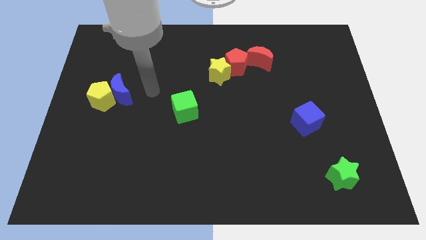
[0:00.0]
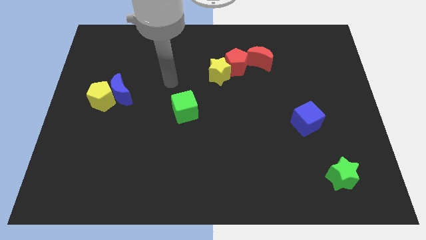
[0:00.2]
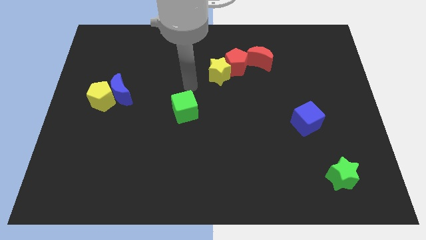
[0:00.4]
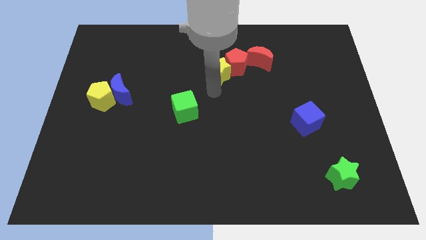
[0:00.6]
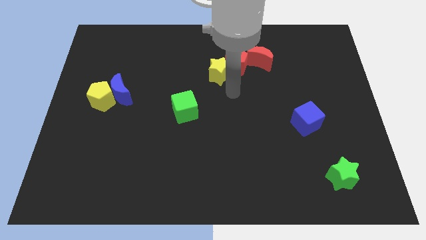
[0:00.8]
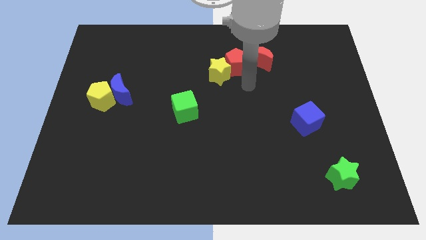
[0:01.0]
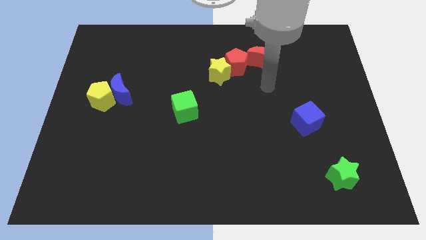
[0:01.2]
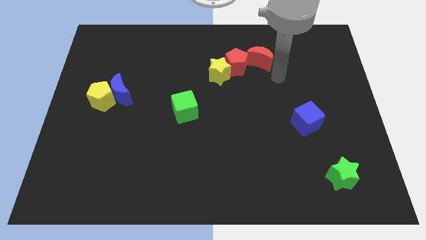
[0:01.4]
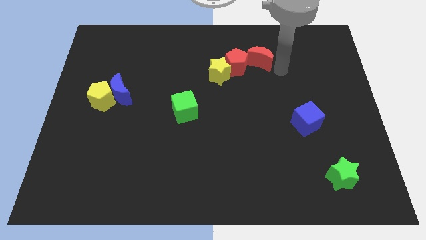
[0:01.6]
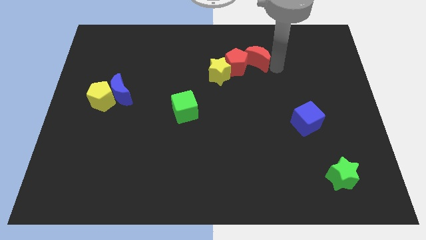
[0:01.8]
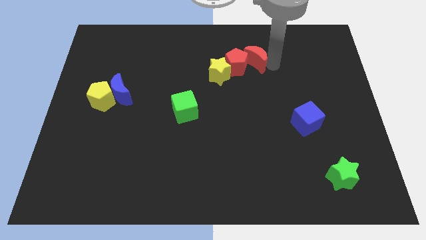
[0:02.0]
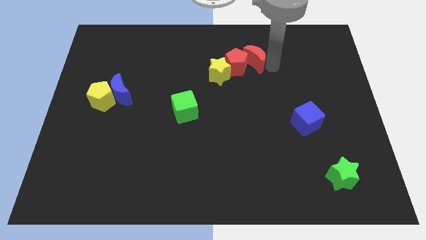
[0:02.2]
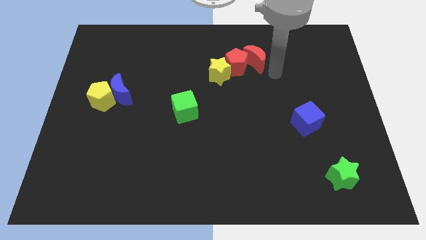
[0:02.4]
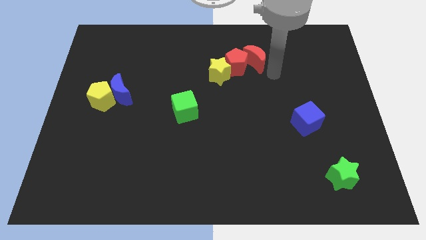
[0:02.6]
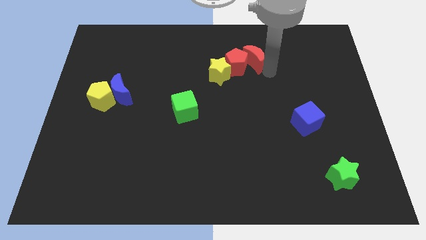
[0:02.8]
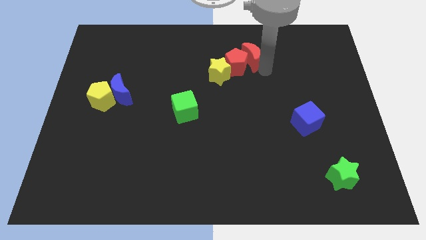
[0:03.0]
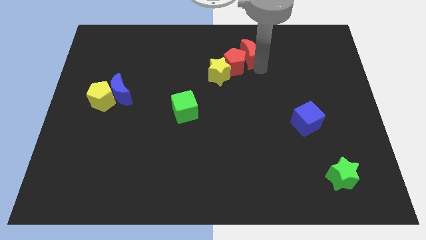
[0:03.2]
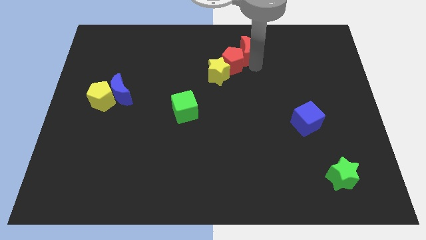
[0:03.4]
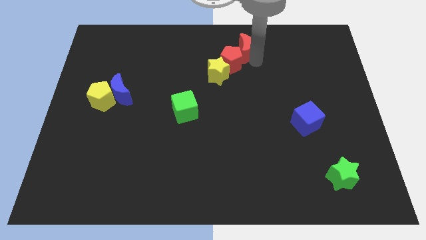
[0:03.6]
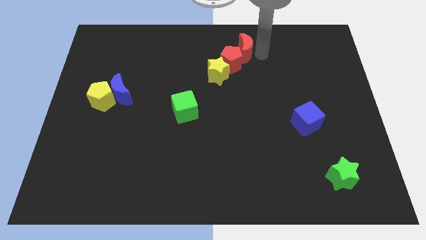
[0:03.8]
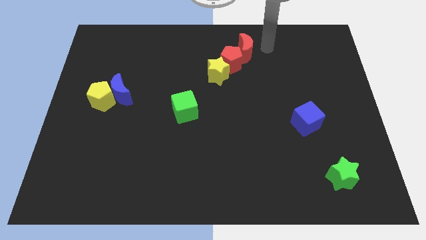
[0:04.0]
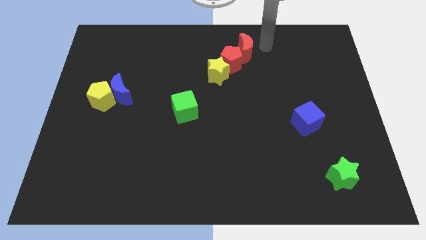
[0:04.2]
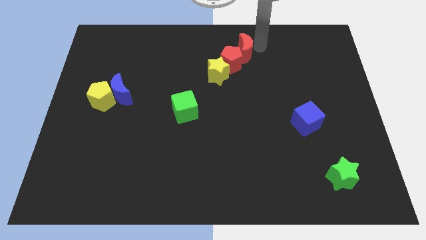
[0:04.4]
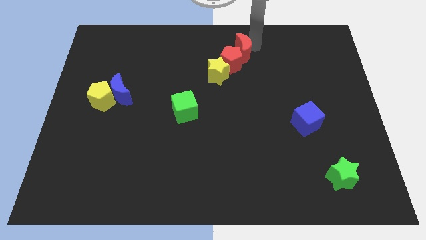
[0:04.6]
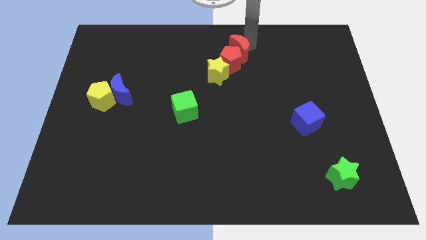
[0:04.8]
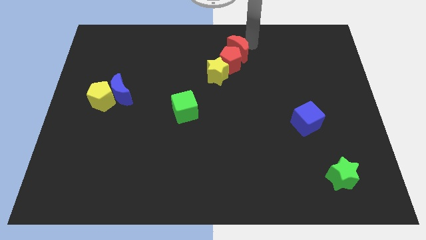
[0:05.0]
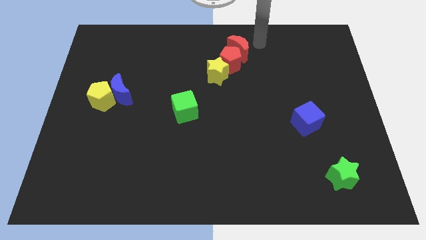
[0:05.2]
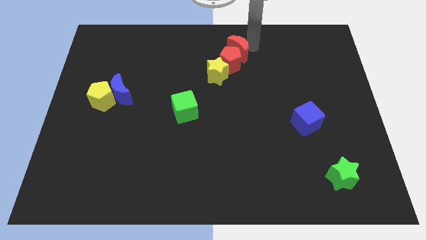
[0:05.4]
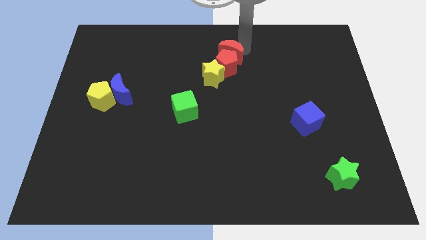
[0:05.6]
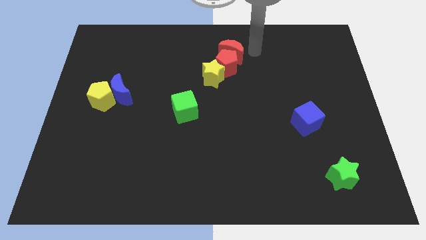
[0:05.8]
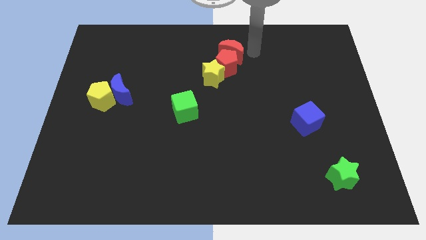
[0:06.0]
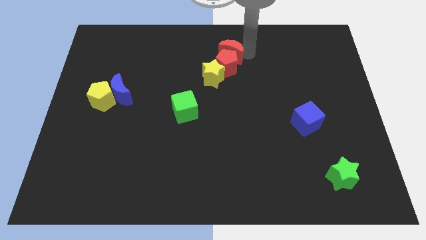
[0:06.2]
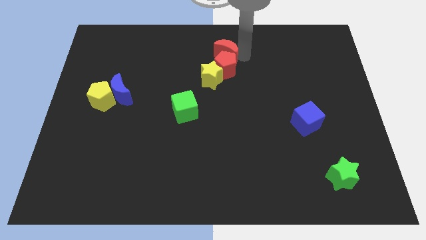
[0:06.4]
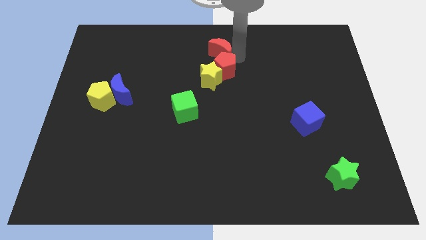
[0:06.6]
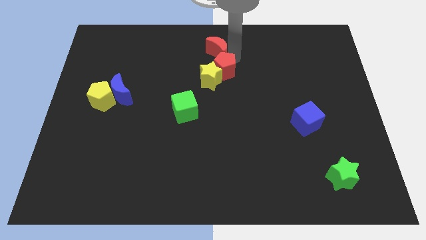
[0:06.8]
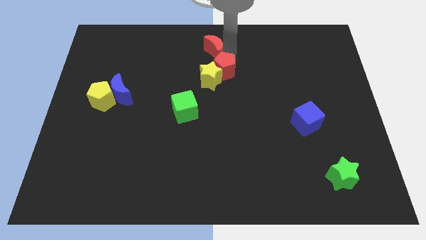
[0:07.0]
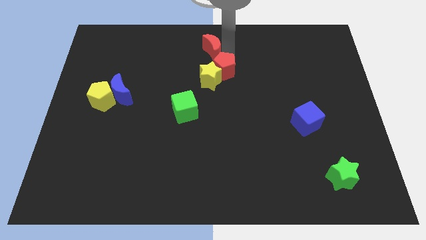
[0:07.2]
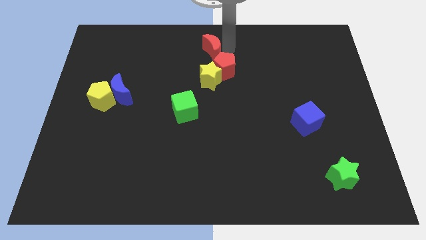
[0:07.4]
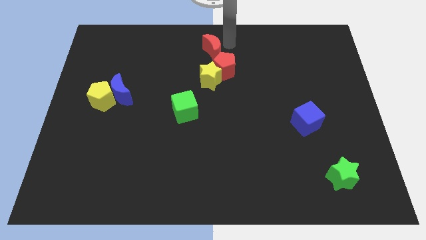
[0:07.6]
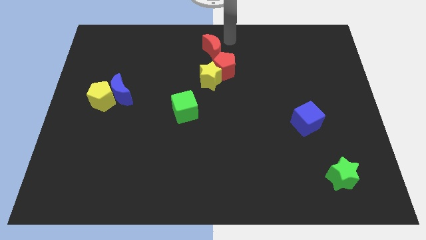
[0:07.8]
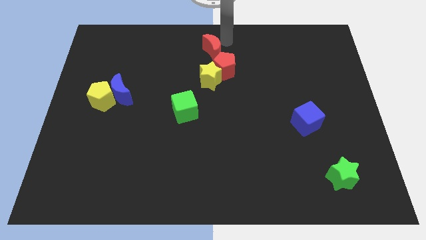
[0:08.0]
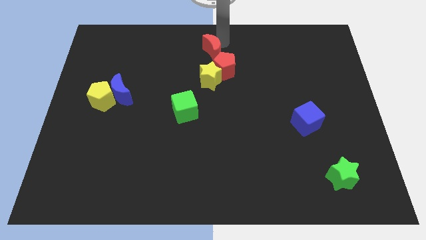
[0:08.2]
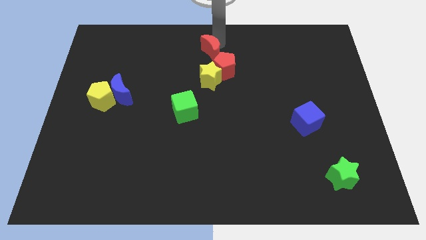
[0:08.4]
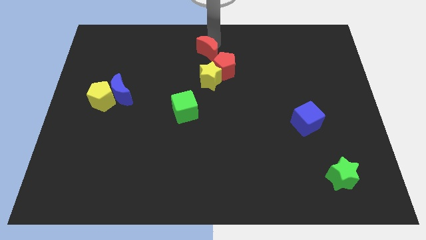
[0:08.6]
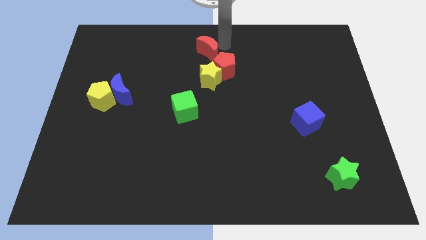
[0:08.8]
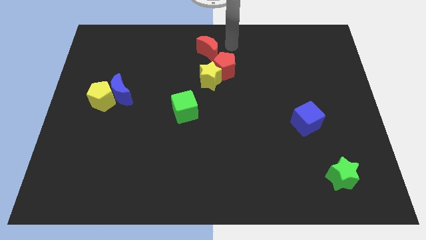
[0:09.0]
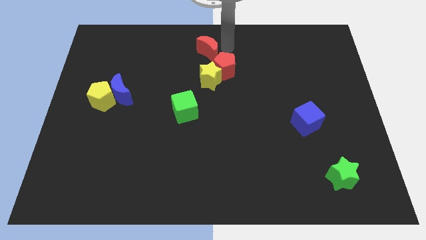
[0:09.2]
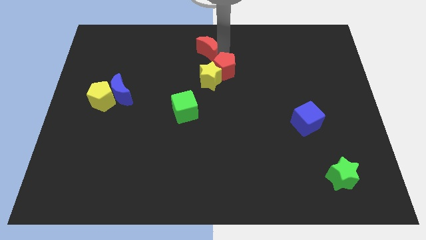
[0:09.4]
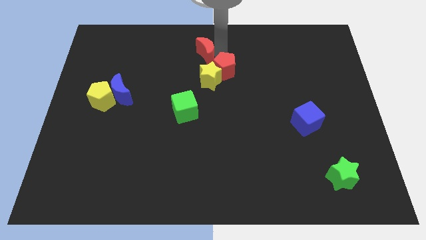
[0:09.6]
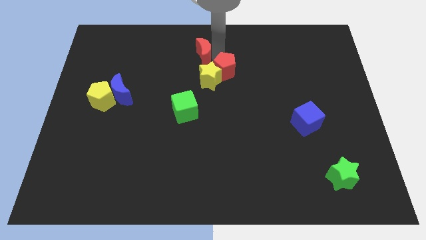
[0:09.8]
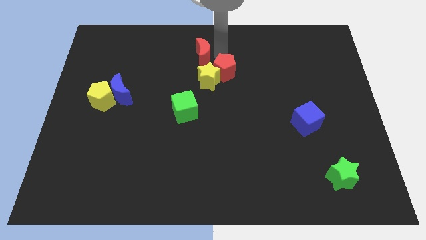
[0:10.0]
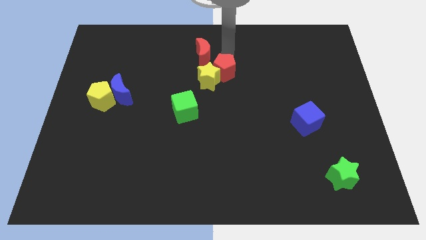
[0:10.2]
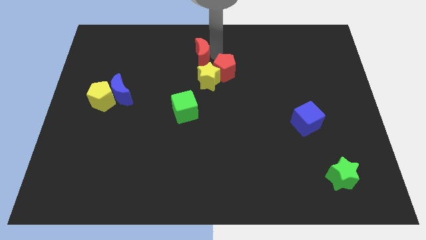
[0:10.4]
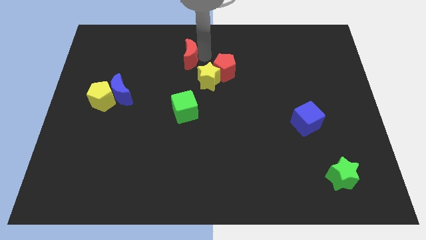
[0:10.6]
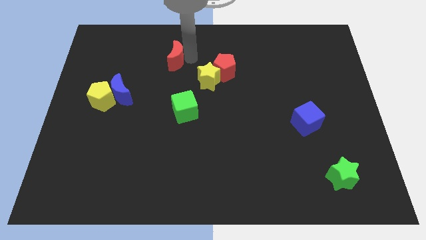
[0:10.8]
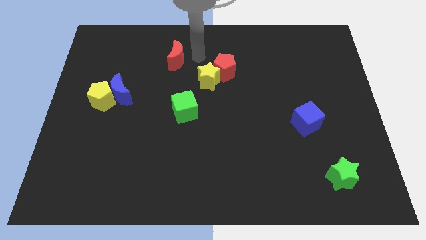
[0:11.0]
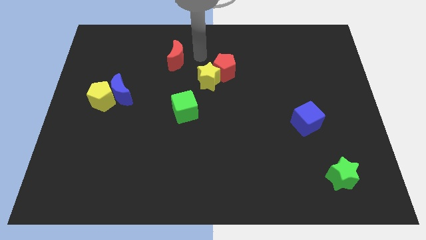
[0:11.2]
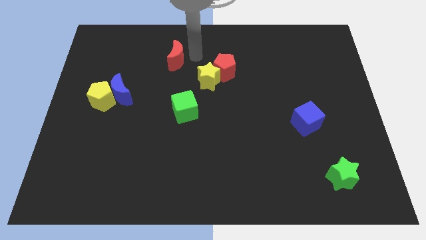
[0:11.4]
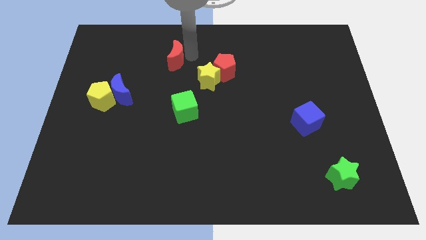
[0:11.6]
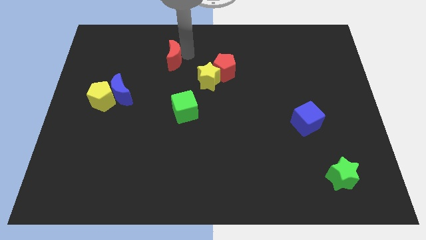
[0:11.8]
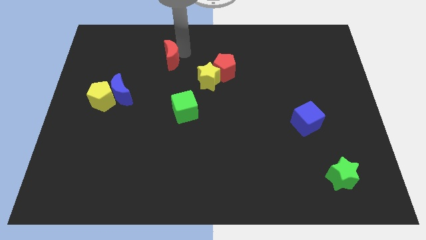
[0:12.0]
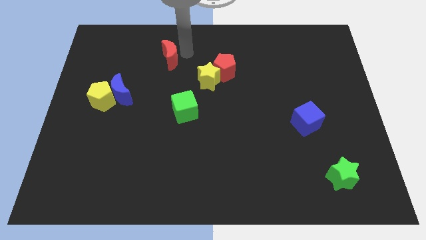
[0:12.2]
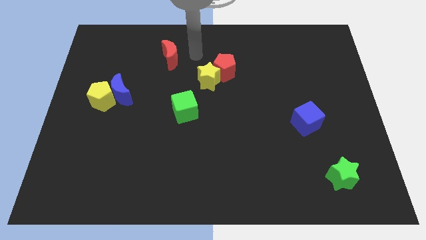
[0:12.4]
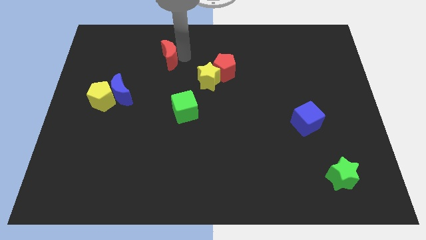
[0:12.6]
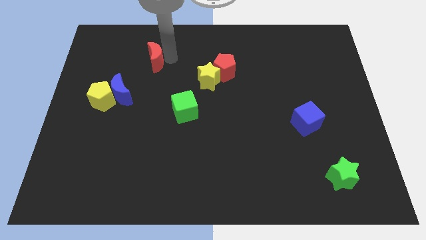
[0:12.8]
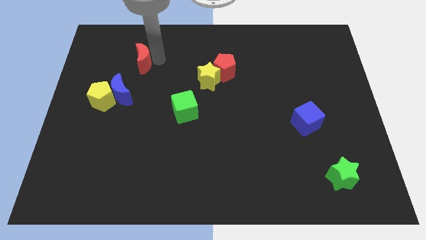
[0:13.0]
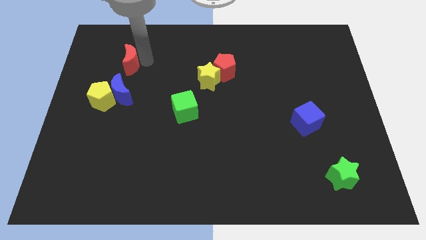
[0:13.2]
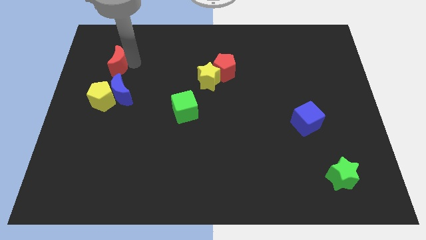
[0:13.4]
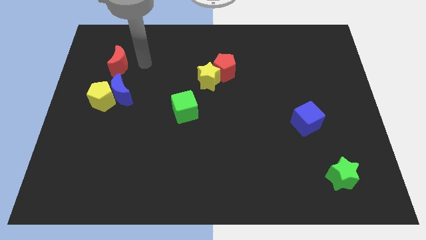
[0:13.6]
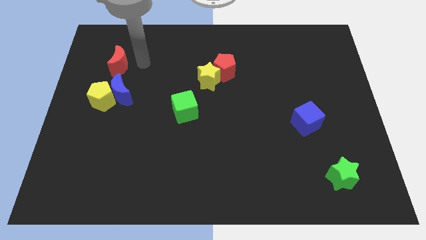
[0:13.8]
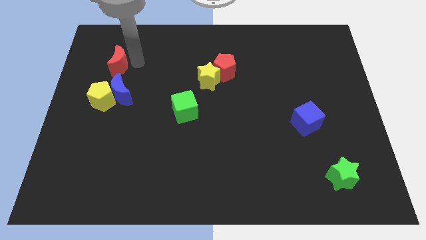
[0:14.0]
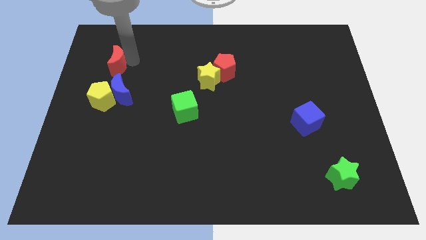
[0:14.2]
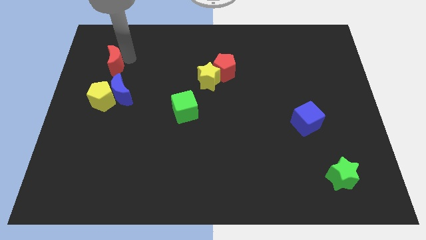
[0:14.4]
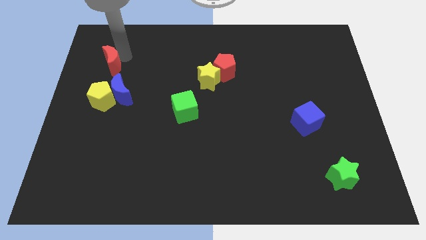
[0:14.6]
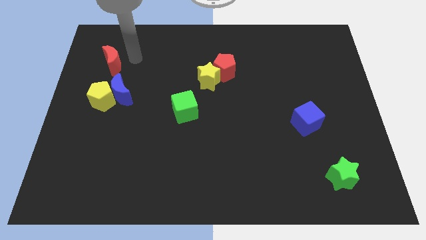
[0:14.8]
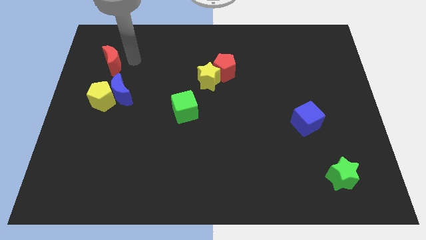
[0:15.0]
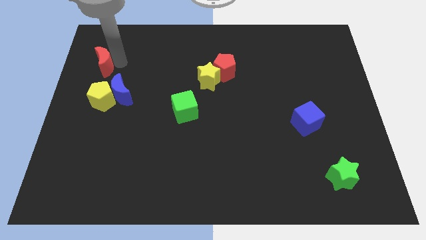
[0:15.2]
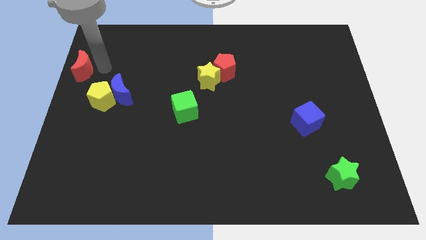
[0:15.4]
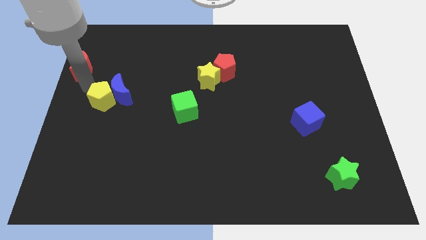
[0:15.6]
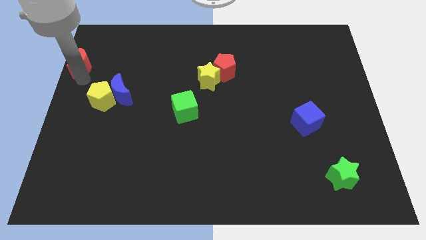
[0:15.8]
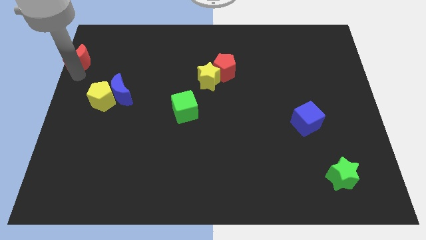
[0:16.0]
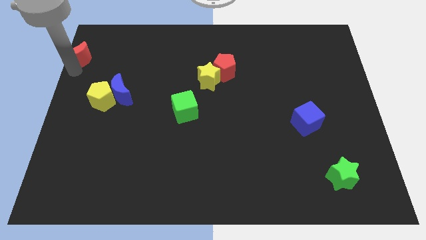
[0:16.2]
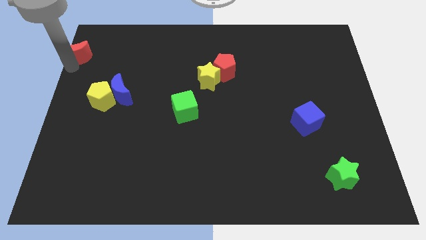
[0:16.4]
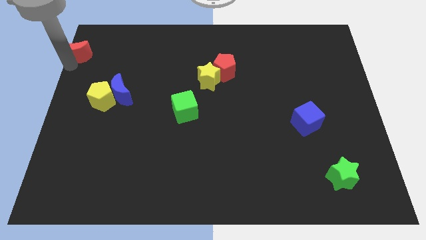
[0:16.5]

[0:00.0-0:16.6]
push the red moon to the top left of the board
